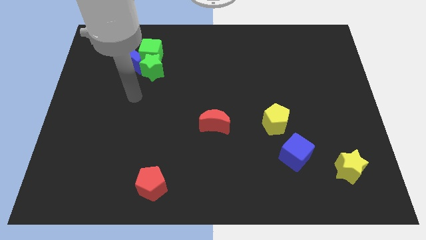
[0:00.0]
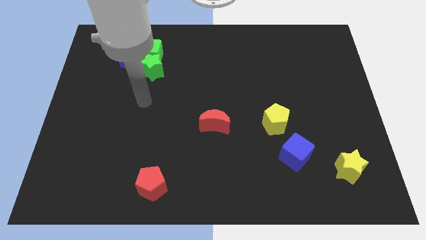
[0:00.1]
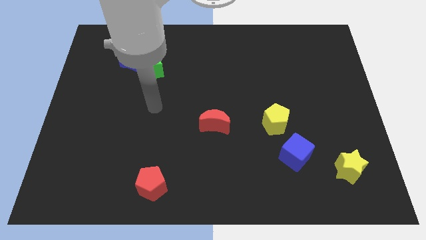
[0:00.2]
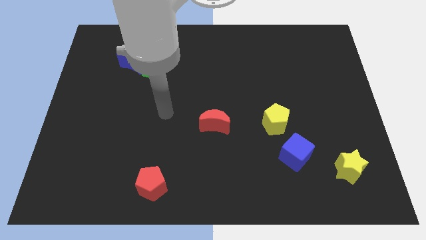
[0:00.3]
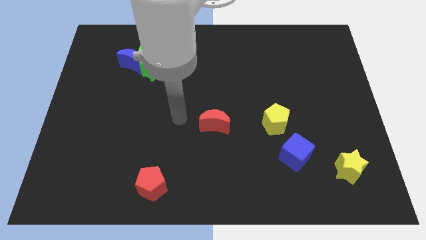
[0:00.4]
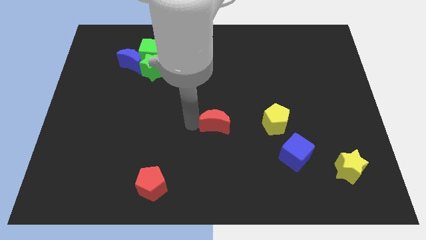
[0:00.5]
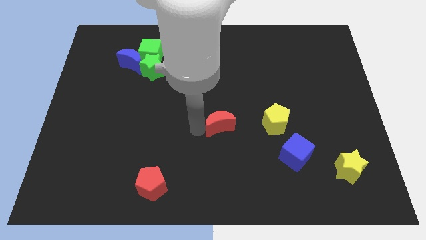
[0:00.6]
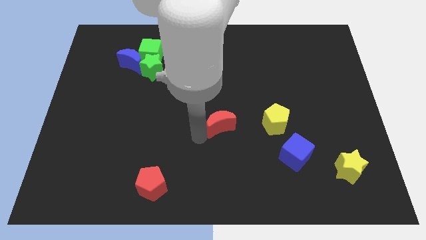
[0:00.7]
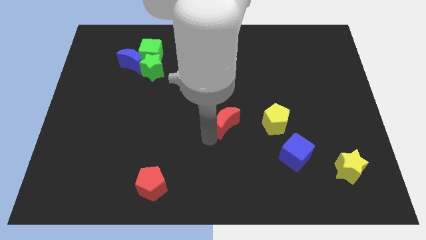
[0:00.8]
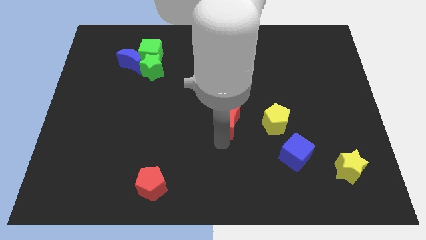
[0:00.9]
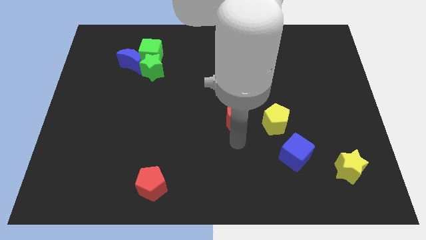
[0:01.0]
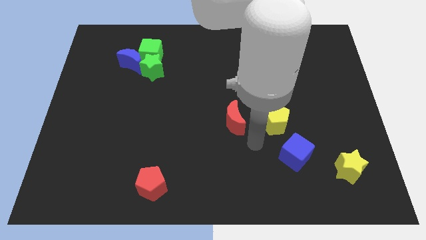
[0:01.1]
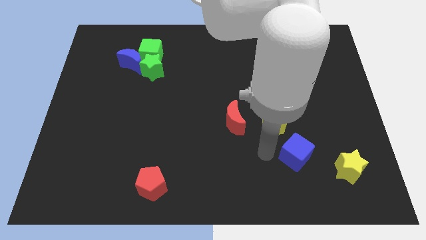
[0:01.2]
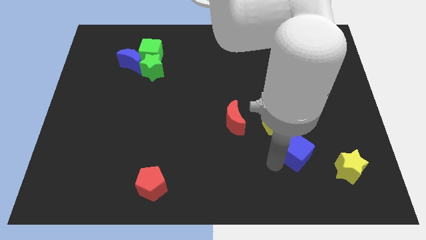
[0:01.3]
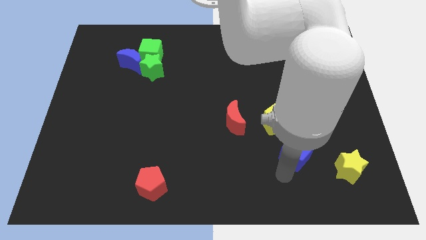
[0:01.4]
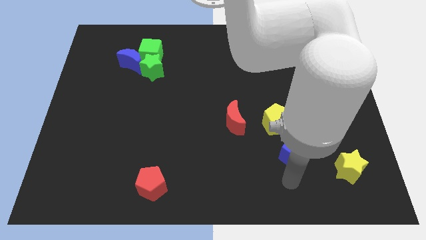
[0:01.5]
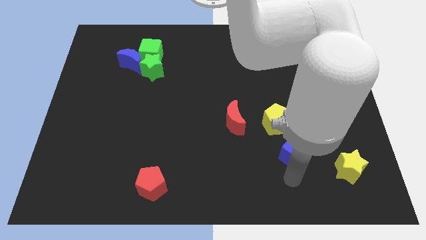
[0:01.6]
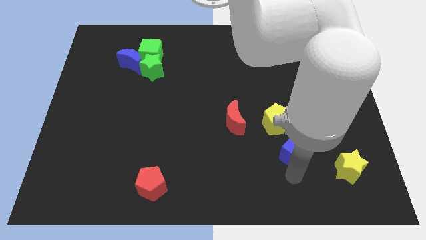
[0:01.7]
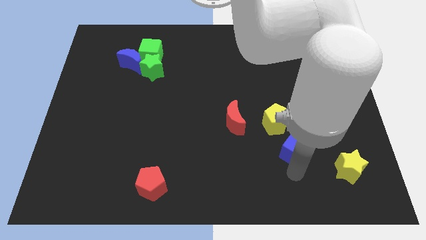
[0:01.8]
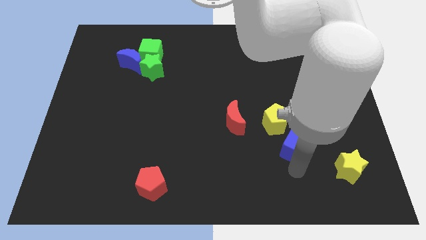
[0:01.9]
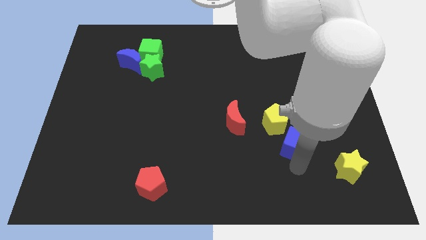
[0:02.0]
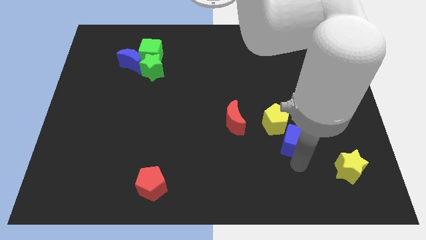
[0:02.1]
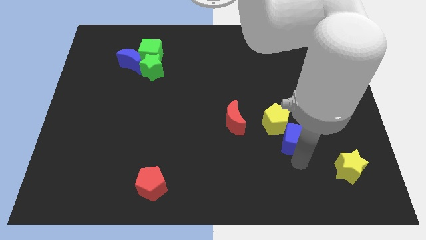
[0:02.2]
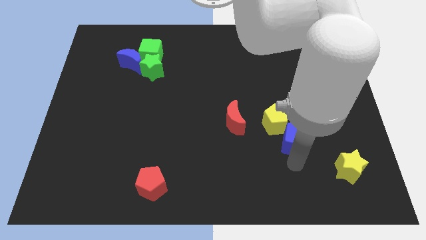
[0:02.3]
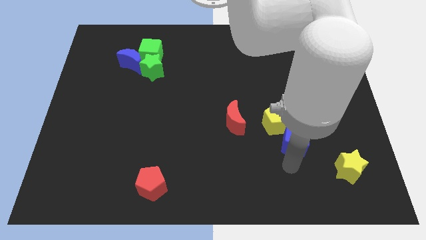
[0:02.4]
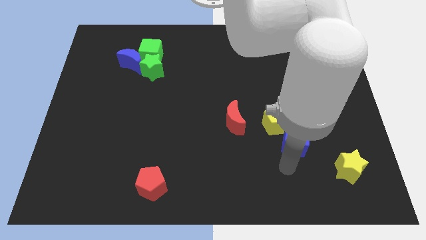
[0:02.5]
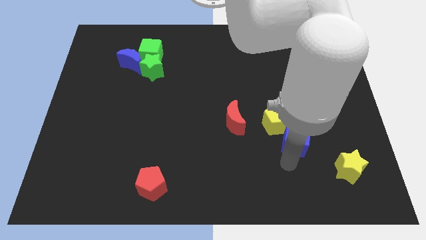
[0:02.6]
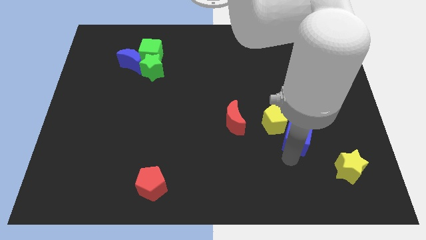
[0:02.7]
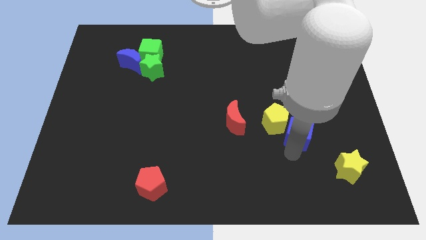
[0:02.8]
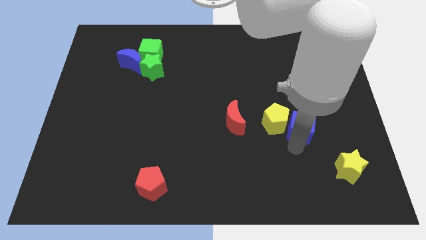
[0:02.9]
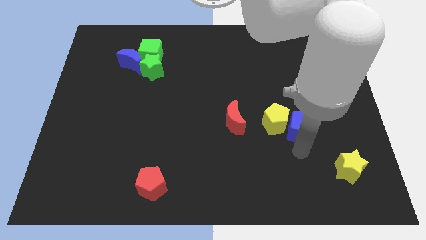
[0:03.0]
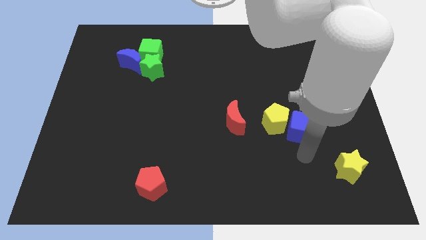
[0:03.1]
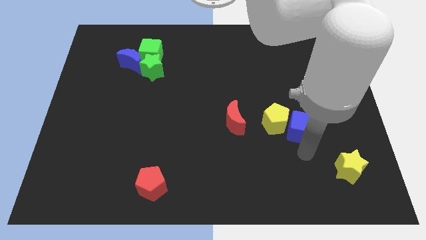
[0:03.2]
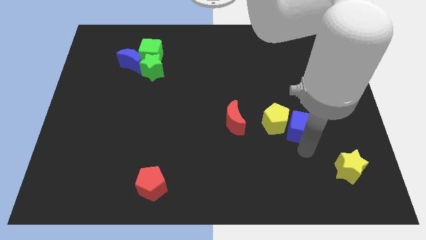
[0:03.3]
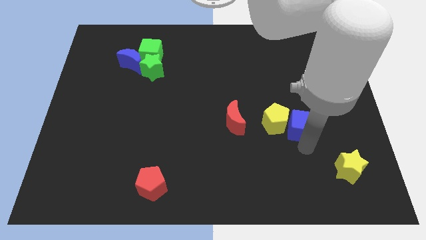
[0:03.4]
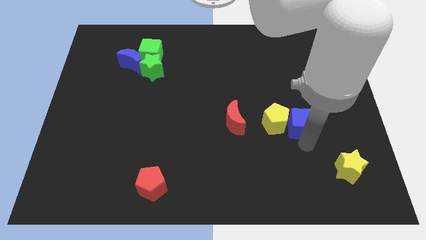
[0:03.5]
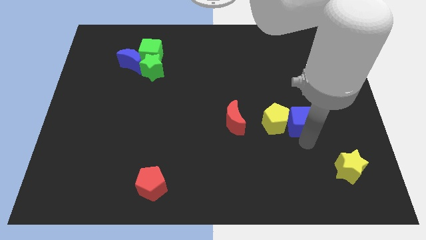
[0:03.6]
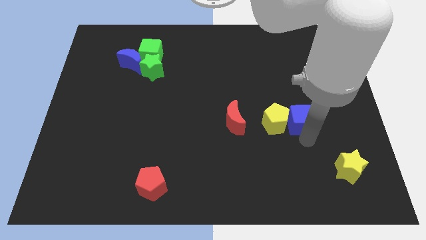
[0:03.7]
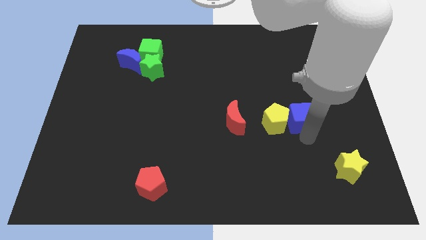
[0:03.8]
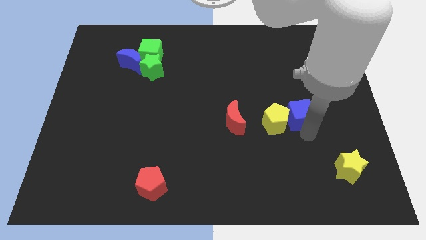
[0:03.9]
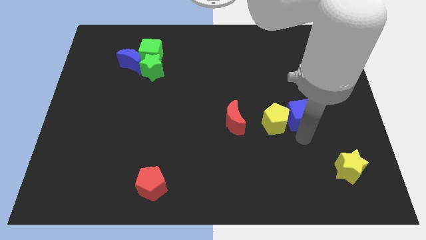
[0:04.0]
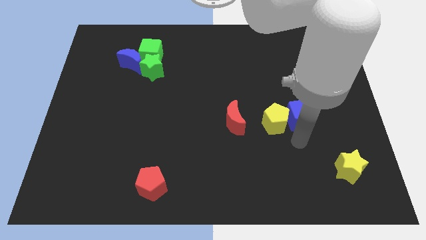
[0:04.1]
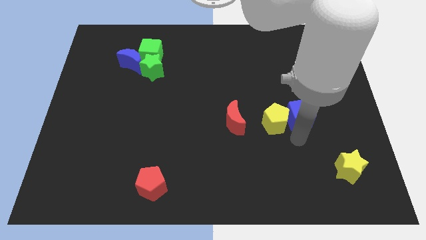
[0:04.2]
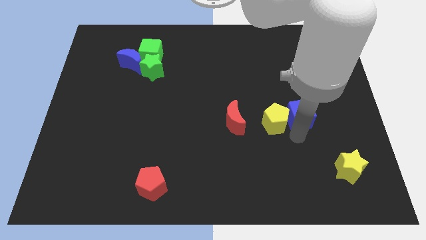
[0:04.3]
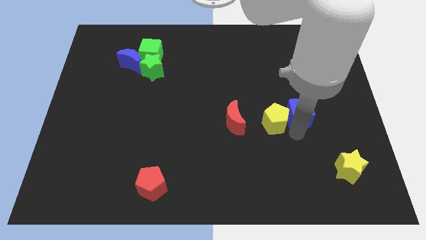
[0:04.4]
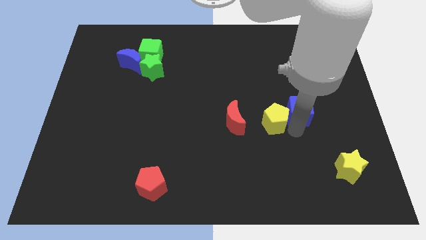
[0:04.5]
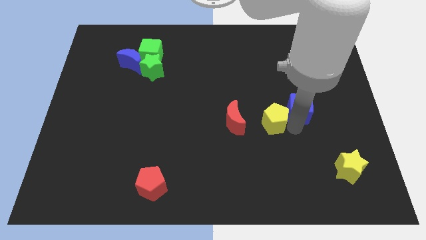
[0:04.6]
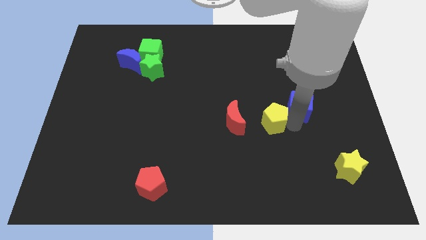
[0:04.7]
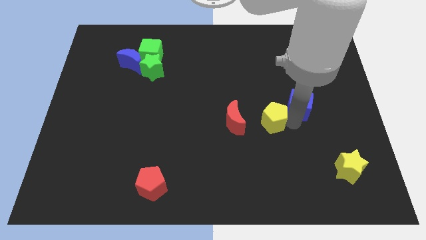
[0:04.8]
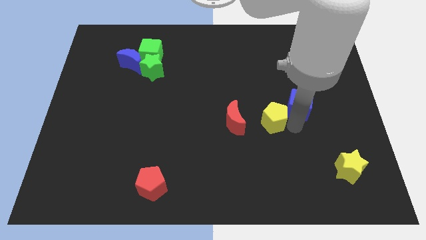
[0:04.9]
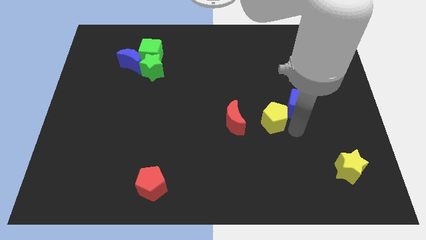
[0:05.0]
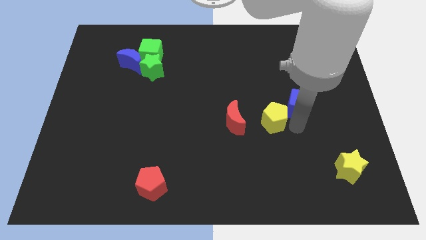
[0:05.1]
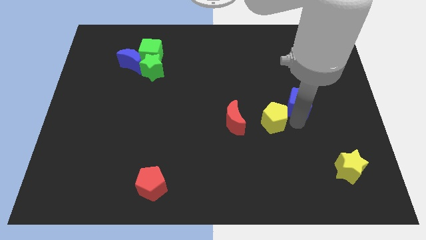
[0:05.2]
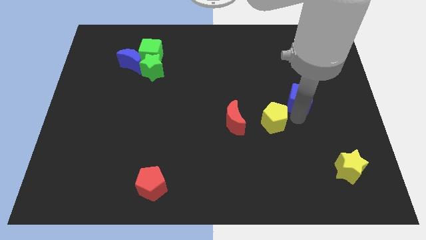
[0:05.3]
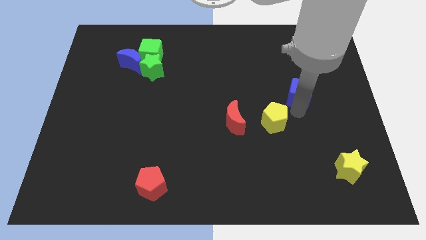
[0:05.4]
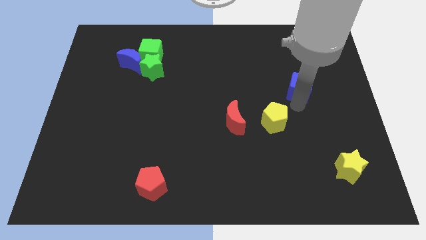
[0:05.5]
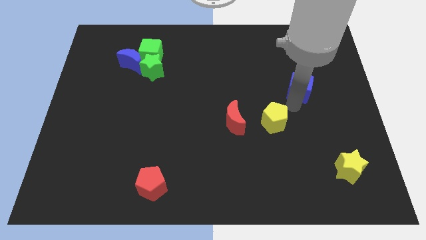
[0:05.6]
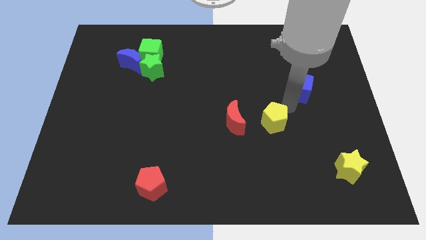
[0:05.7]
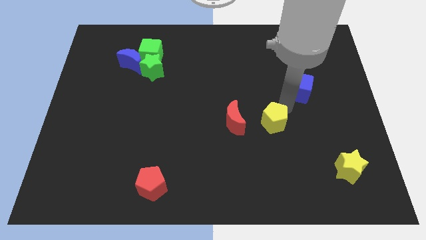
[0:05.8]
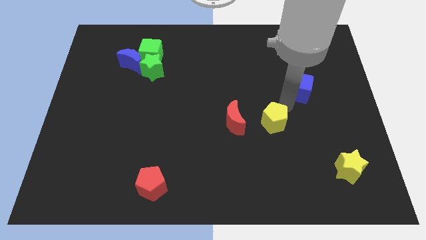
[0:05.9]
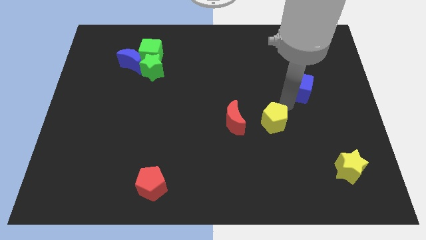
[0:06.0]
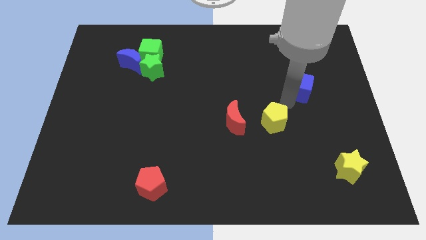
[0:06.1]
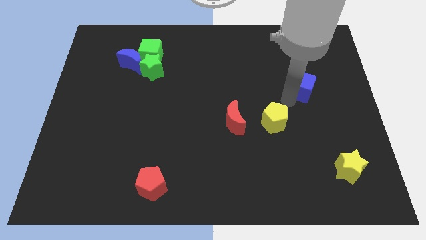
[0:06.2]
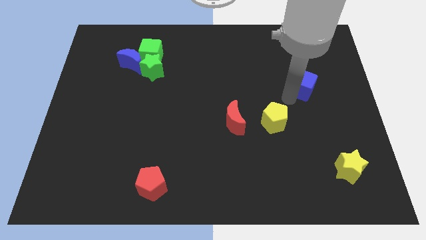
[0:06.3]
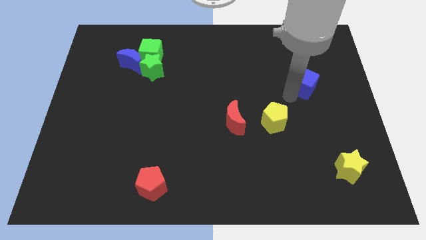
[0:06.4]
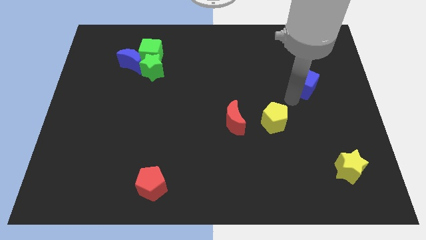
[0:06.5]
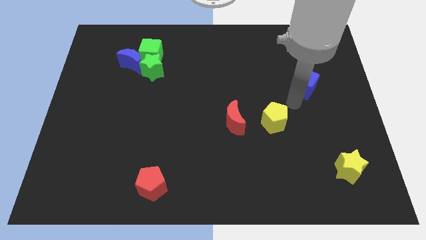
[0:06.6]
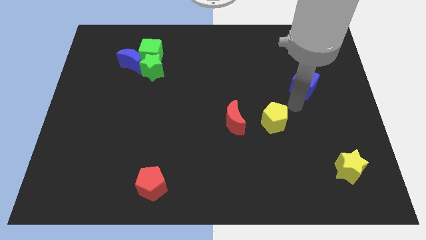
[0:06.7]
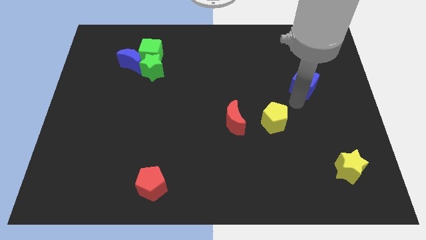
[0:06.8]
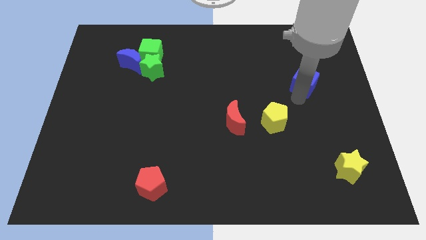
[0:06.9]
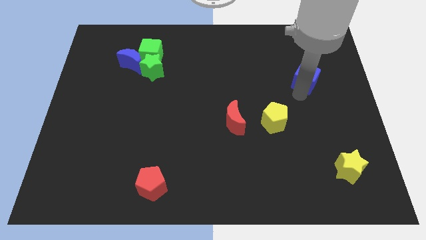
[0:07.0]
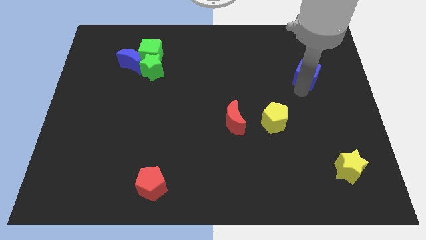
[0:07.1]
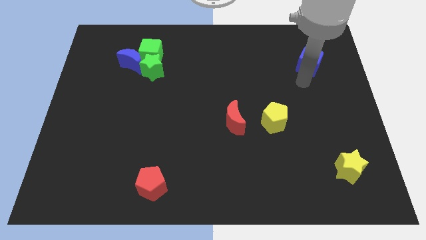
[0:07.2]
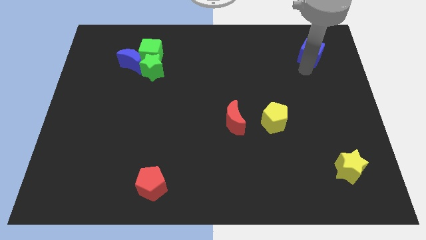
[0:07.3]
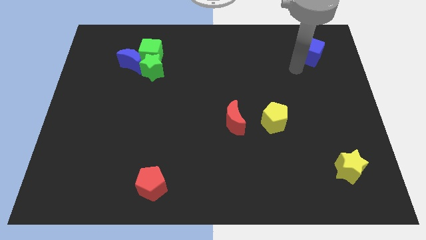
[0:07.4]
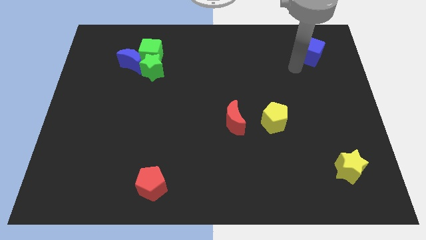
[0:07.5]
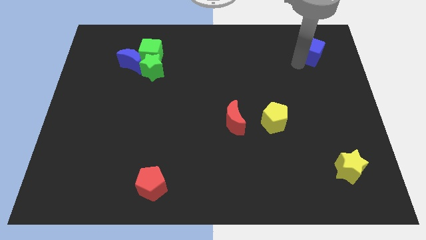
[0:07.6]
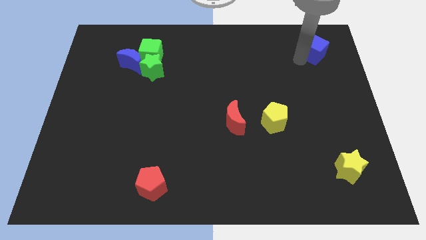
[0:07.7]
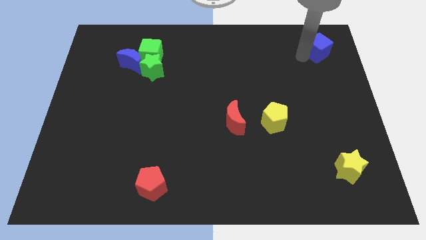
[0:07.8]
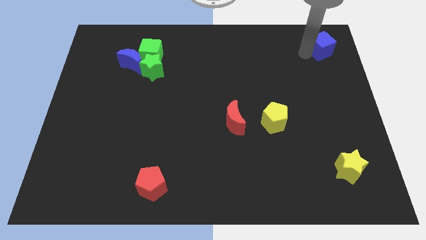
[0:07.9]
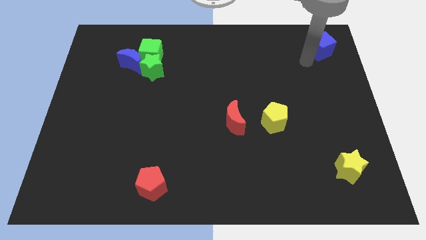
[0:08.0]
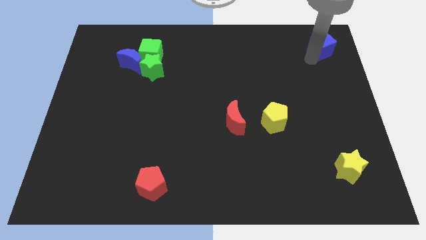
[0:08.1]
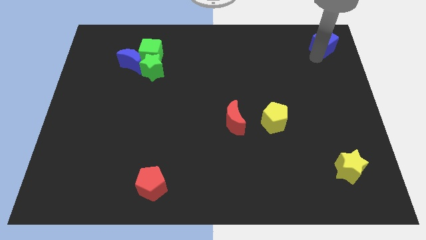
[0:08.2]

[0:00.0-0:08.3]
move the blue cube to the upper right corner
